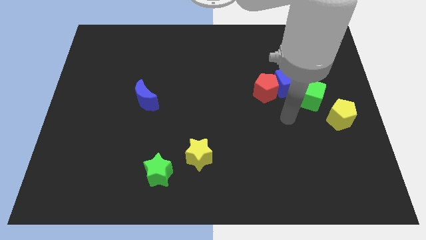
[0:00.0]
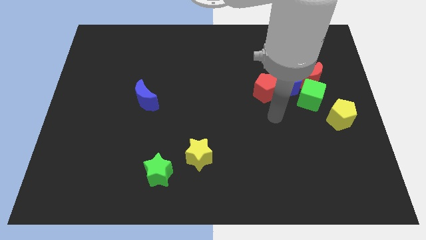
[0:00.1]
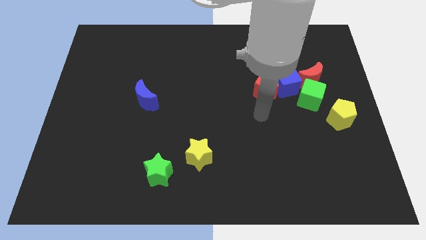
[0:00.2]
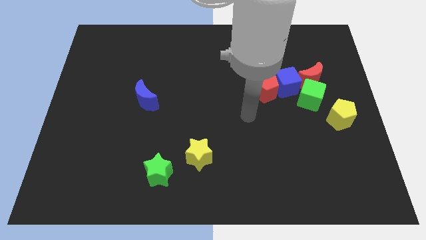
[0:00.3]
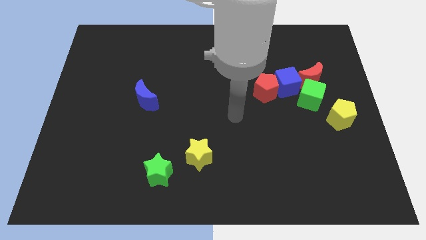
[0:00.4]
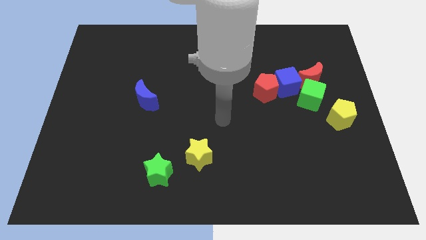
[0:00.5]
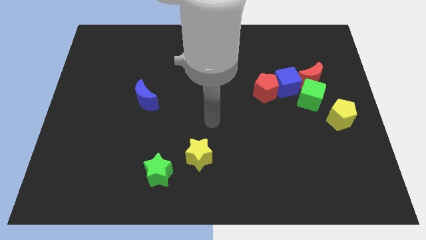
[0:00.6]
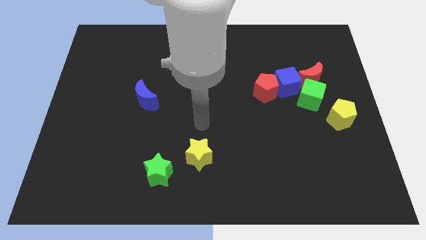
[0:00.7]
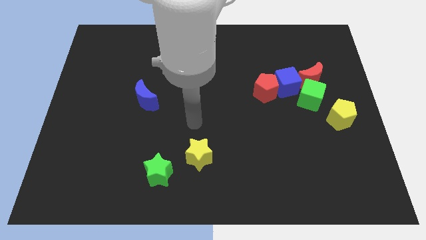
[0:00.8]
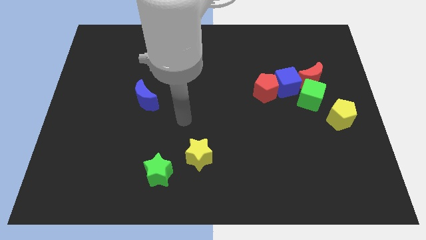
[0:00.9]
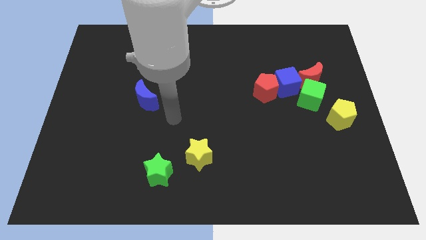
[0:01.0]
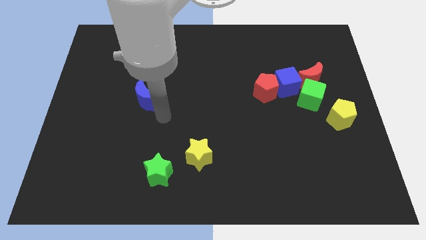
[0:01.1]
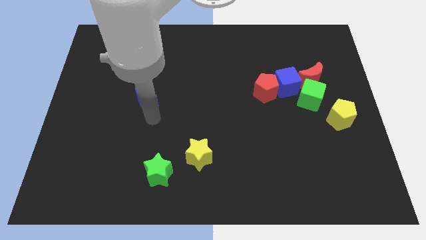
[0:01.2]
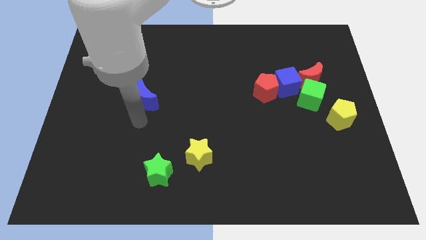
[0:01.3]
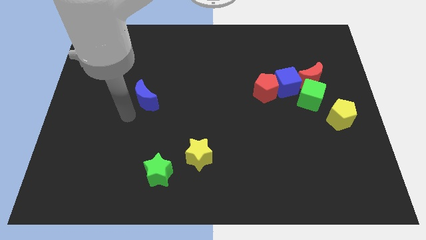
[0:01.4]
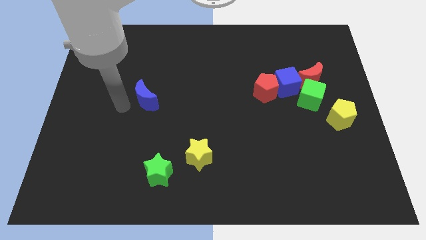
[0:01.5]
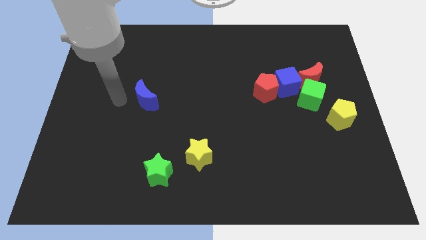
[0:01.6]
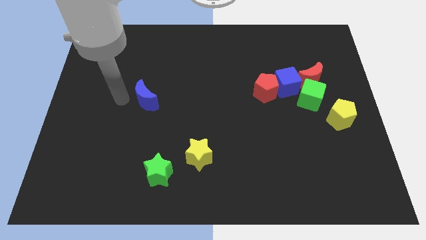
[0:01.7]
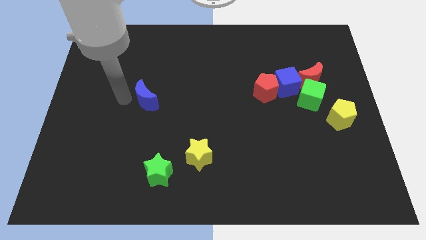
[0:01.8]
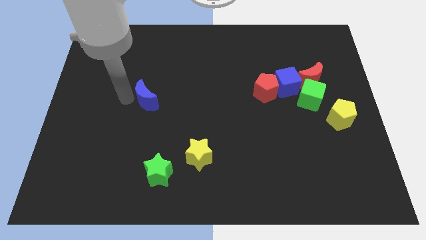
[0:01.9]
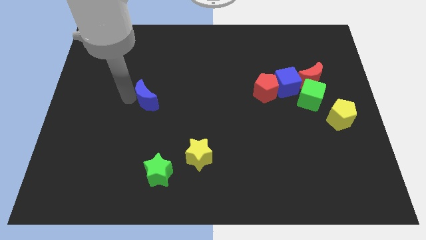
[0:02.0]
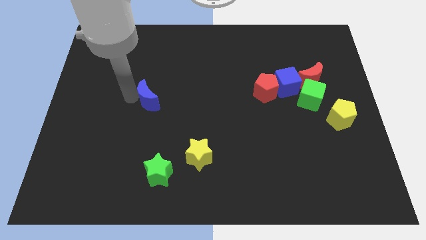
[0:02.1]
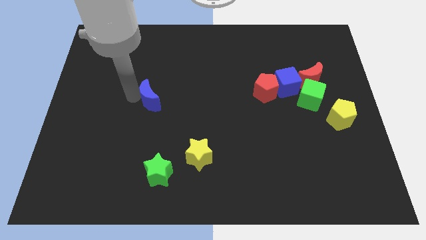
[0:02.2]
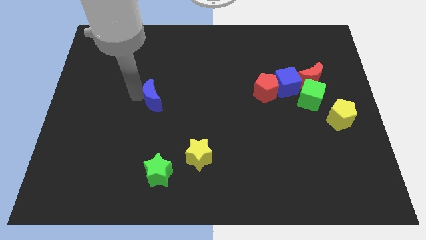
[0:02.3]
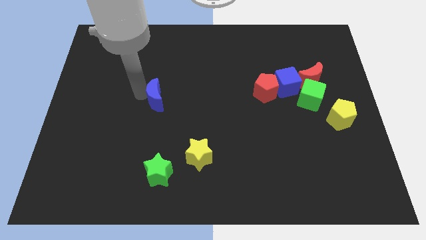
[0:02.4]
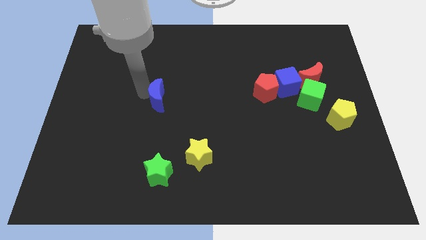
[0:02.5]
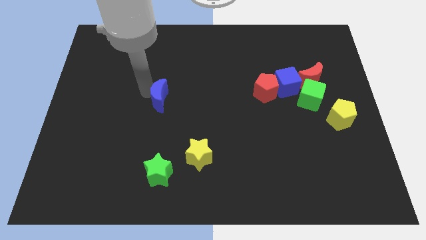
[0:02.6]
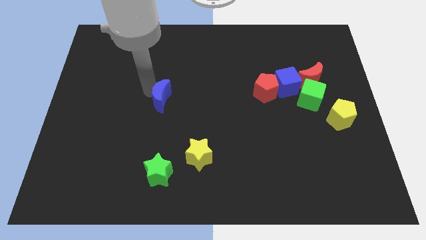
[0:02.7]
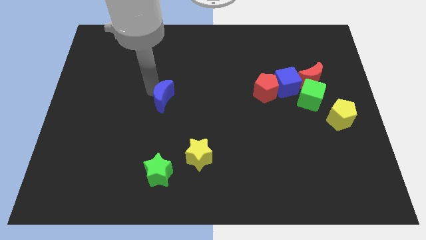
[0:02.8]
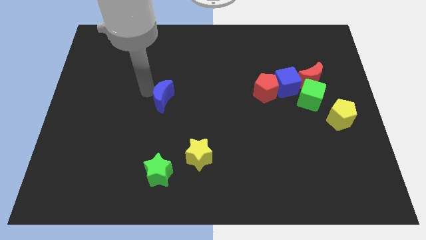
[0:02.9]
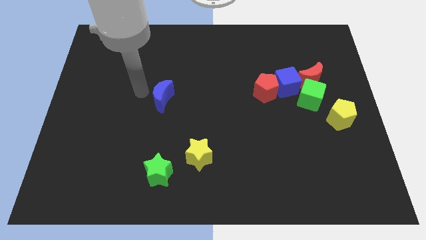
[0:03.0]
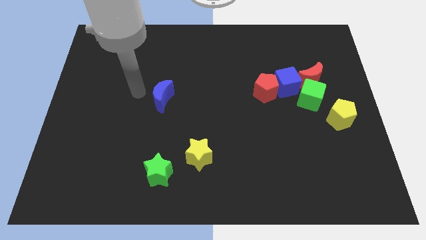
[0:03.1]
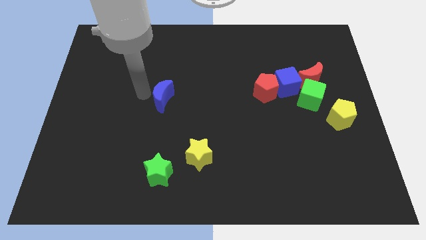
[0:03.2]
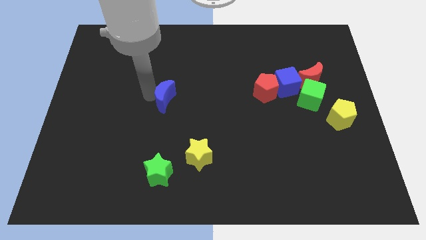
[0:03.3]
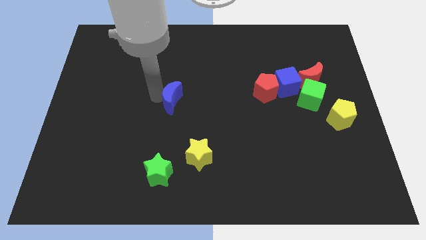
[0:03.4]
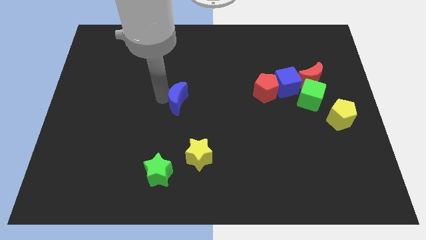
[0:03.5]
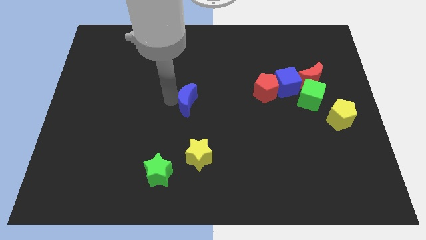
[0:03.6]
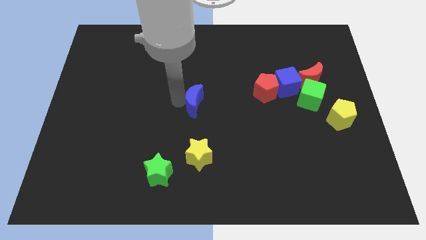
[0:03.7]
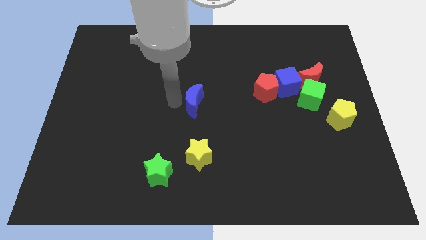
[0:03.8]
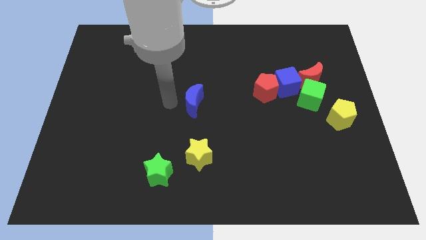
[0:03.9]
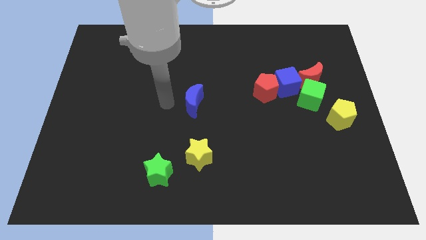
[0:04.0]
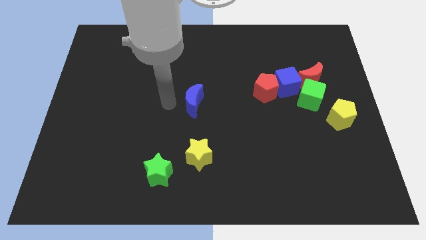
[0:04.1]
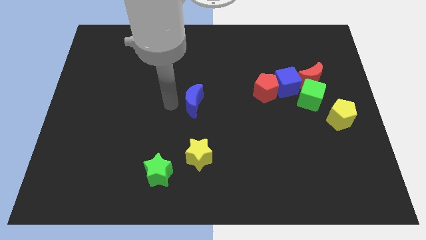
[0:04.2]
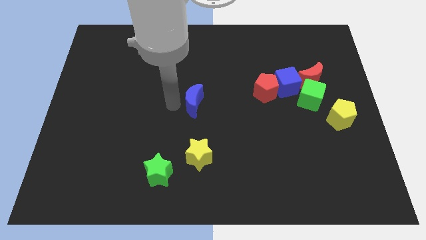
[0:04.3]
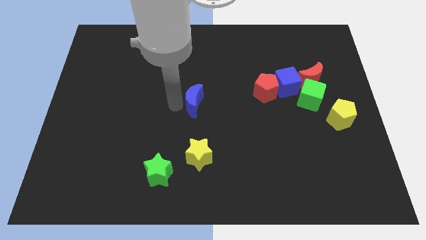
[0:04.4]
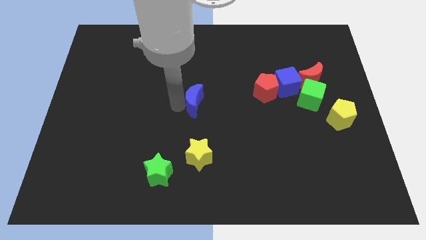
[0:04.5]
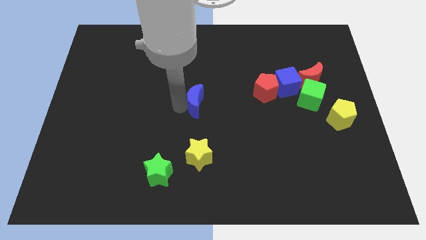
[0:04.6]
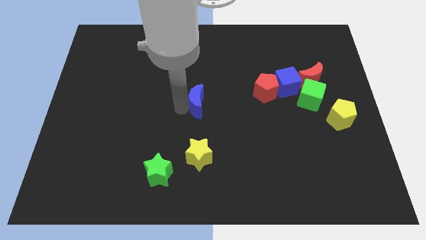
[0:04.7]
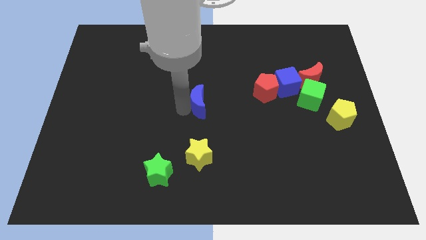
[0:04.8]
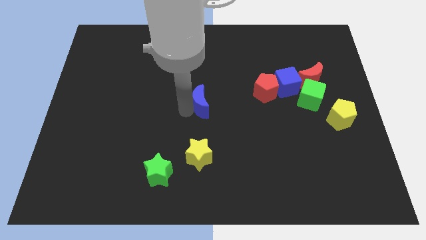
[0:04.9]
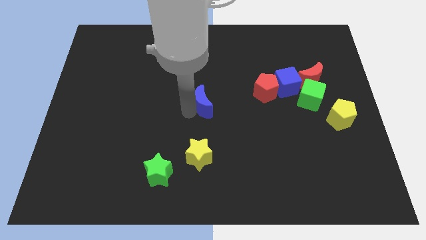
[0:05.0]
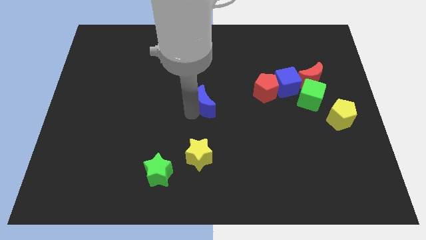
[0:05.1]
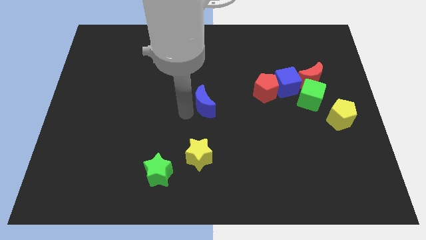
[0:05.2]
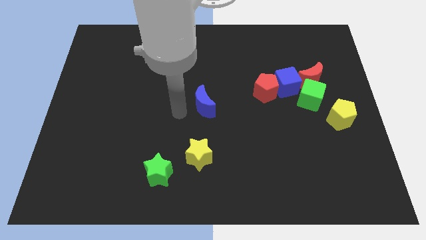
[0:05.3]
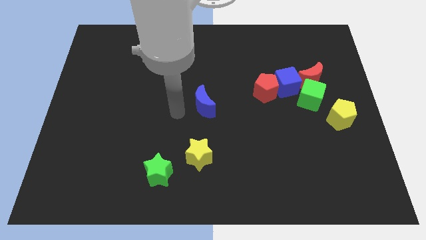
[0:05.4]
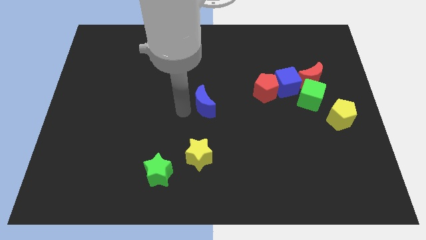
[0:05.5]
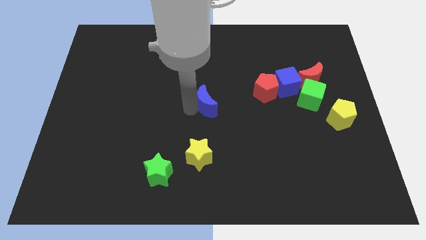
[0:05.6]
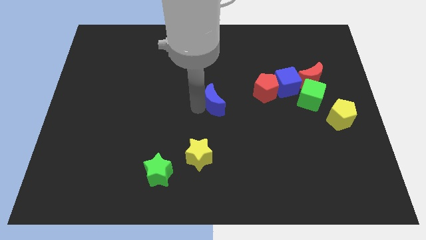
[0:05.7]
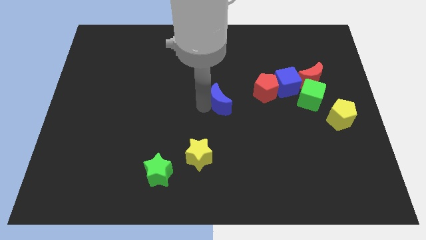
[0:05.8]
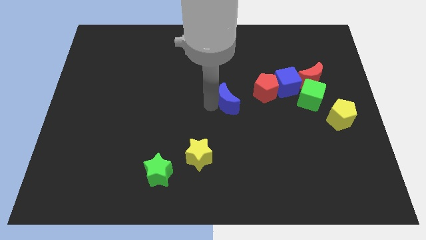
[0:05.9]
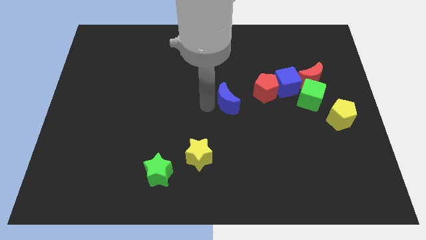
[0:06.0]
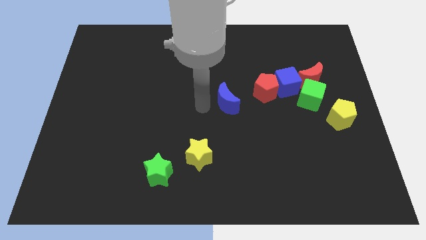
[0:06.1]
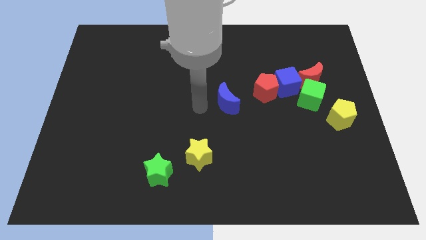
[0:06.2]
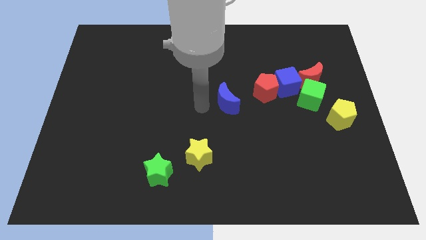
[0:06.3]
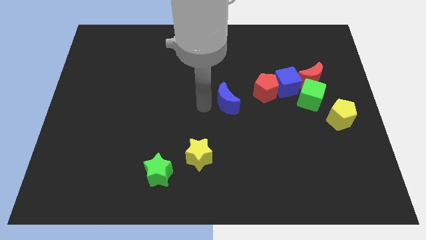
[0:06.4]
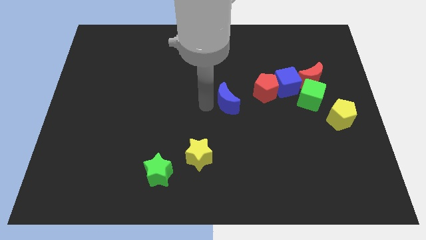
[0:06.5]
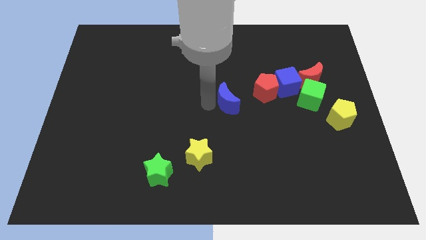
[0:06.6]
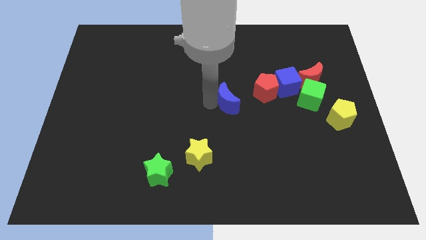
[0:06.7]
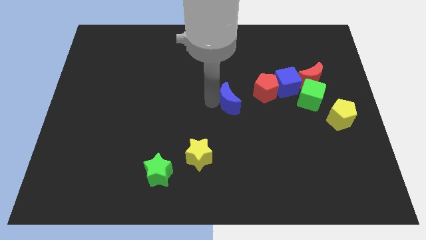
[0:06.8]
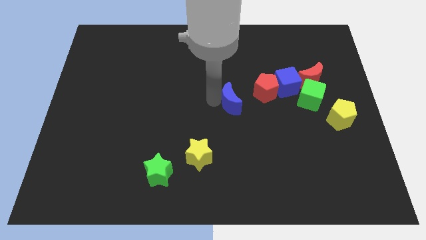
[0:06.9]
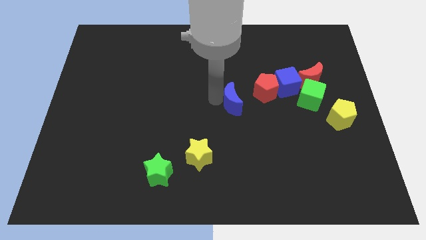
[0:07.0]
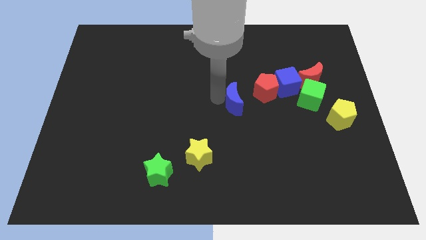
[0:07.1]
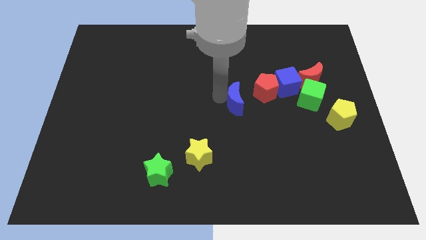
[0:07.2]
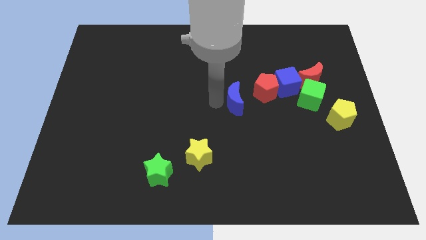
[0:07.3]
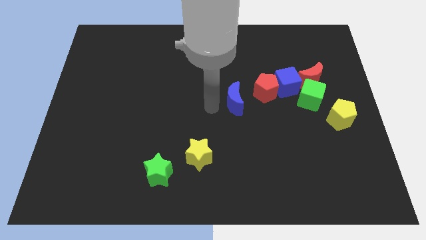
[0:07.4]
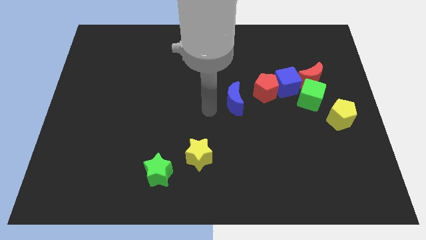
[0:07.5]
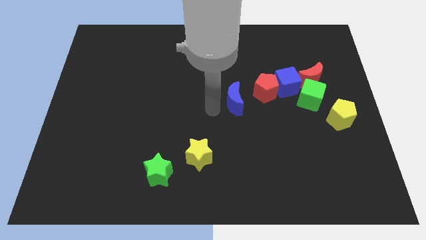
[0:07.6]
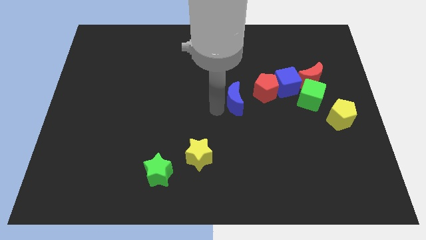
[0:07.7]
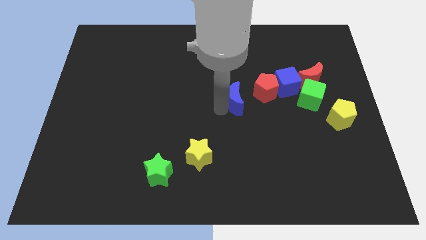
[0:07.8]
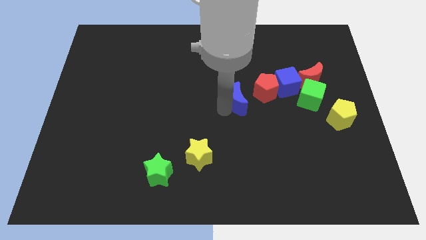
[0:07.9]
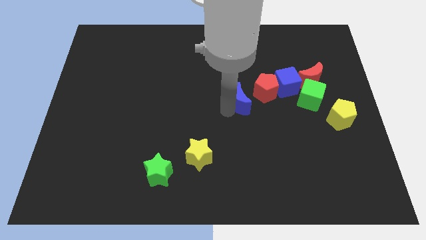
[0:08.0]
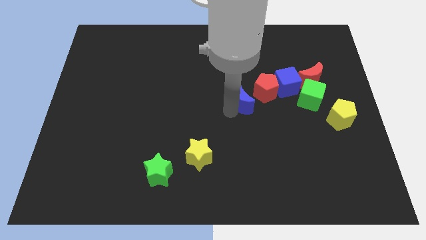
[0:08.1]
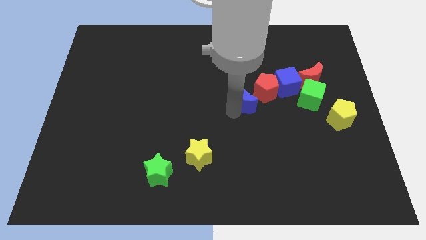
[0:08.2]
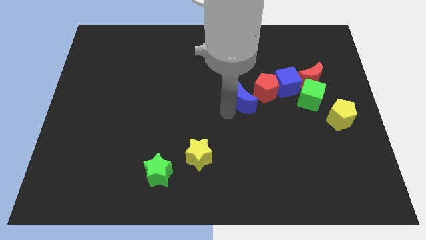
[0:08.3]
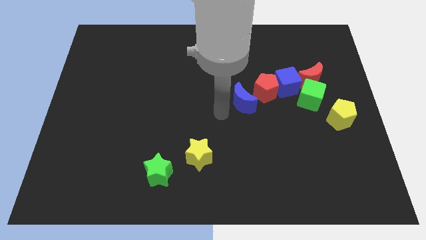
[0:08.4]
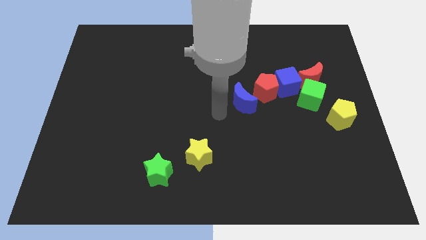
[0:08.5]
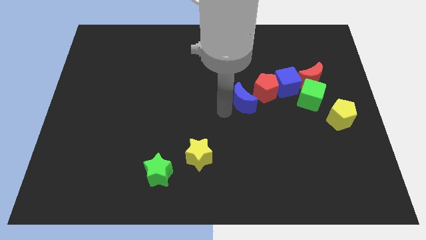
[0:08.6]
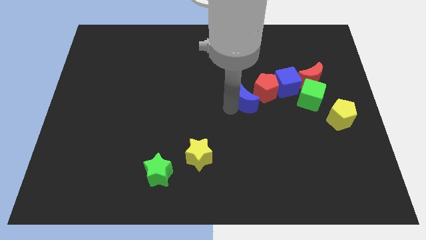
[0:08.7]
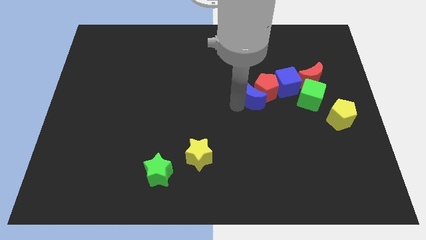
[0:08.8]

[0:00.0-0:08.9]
push the blue moon towards the red pentagon
